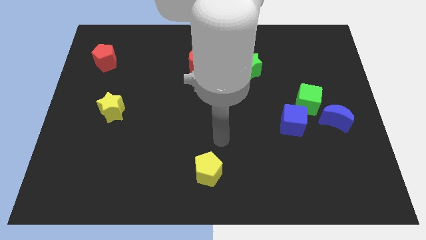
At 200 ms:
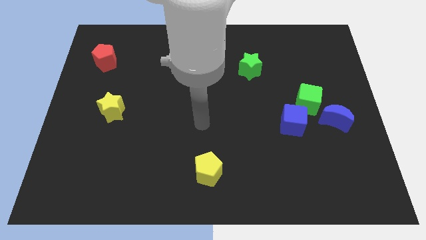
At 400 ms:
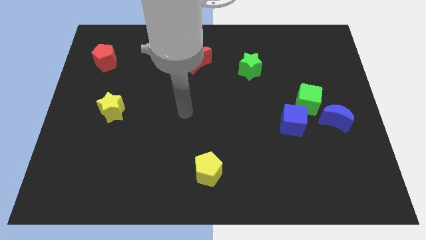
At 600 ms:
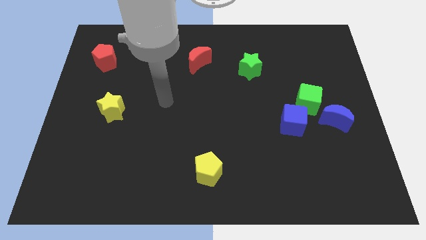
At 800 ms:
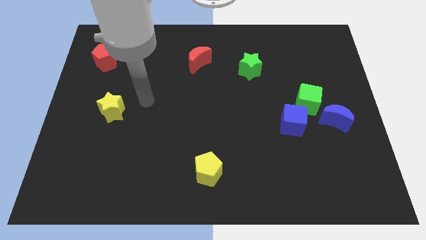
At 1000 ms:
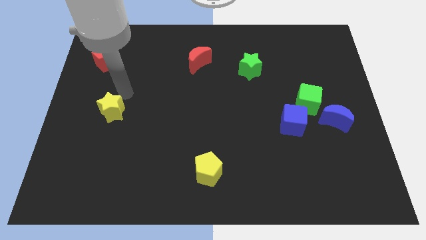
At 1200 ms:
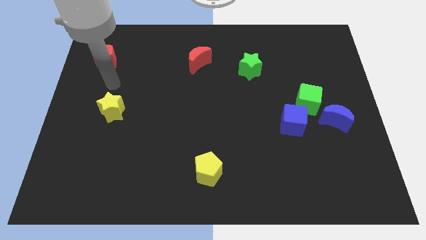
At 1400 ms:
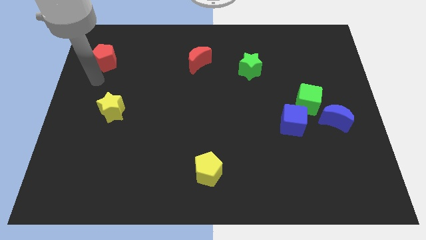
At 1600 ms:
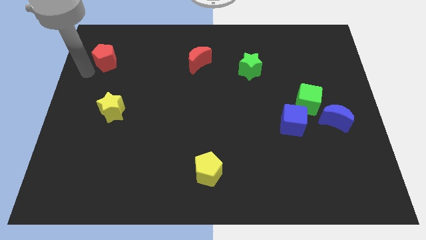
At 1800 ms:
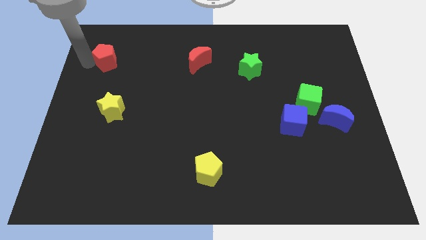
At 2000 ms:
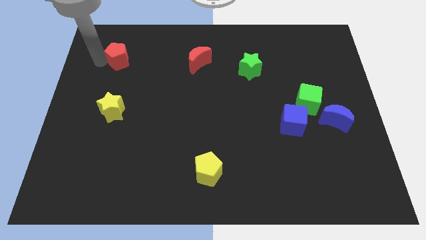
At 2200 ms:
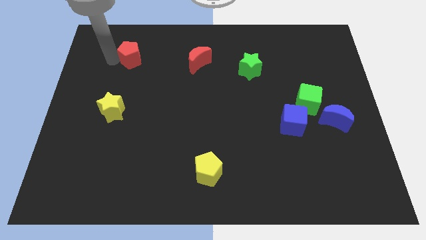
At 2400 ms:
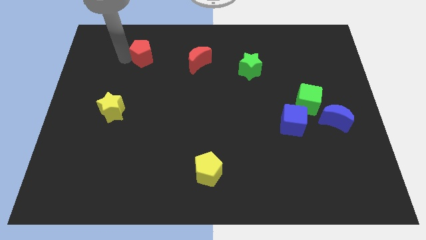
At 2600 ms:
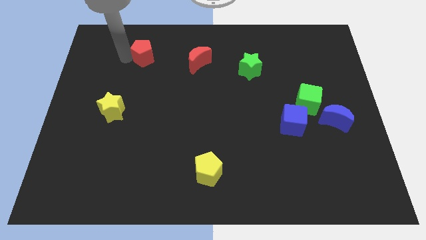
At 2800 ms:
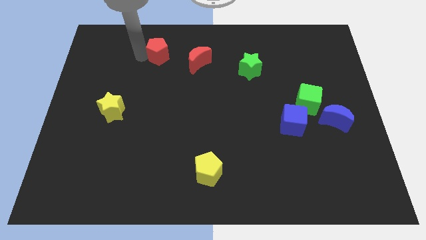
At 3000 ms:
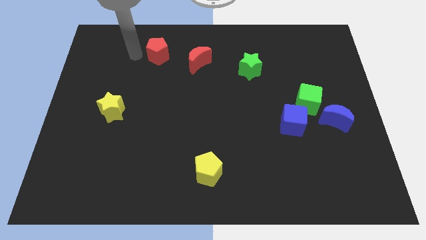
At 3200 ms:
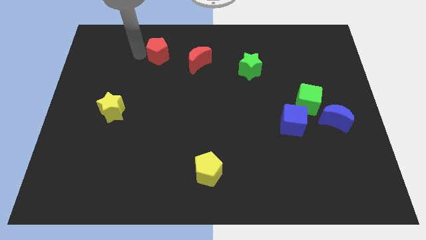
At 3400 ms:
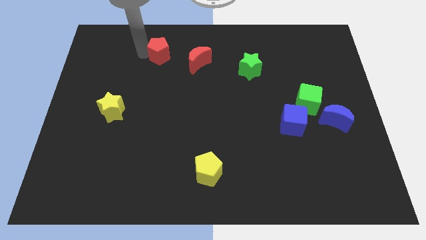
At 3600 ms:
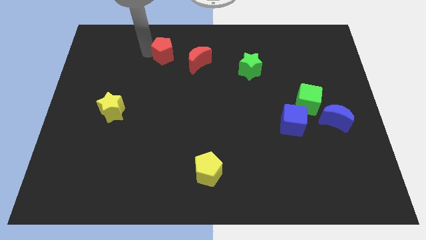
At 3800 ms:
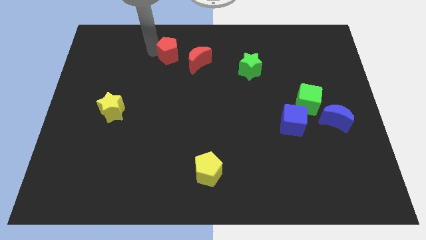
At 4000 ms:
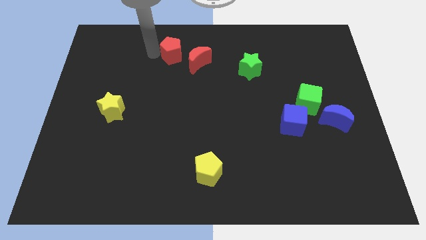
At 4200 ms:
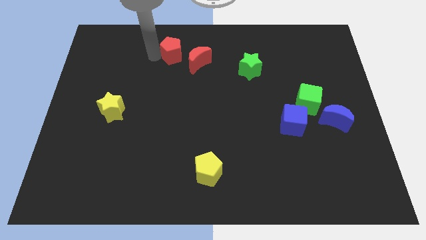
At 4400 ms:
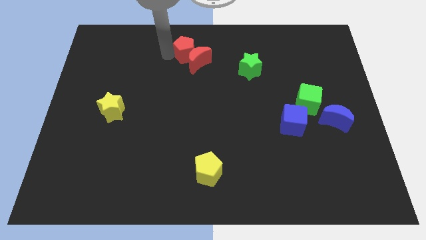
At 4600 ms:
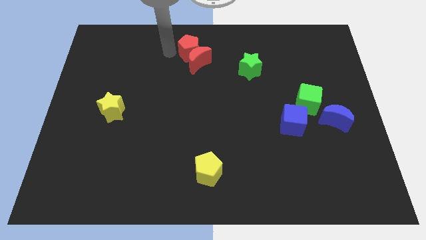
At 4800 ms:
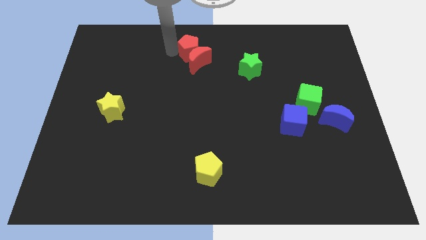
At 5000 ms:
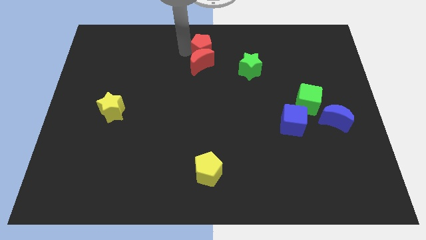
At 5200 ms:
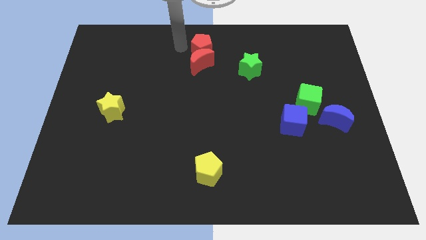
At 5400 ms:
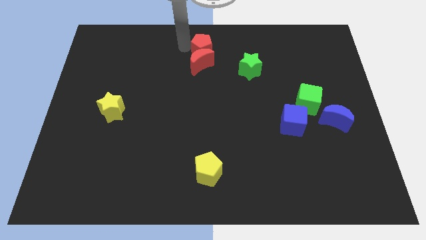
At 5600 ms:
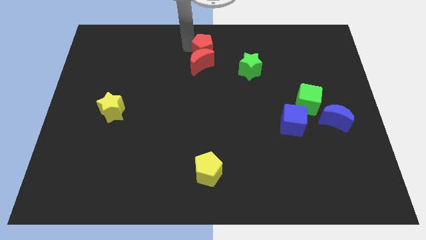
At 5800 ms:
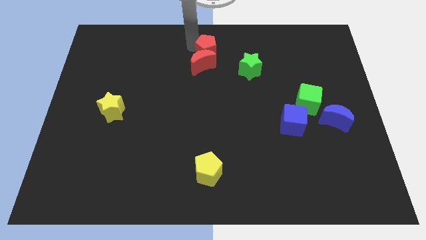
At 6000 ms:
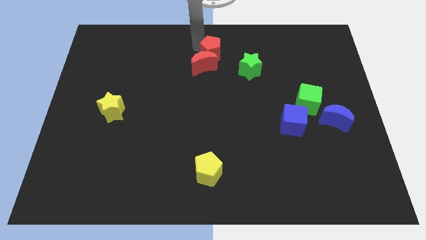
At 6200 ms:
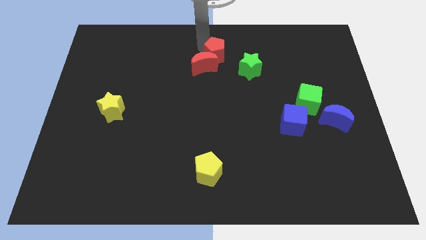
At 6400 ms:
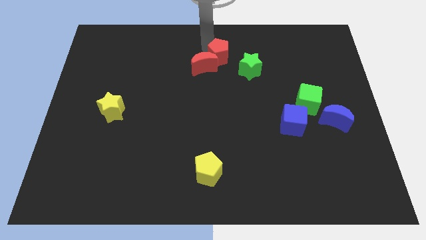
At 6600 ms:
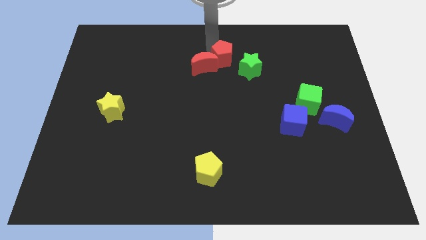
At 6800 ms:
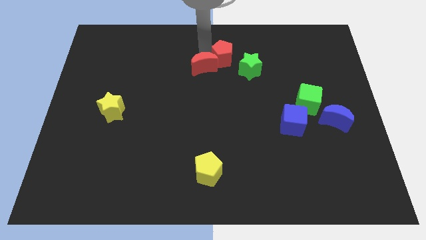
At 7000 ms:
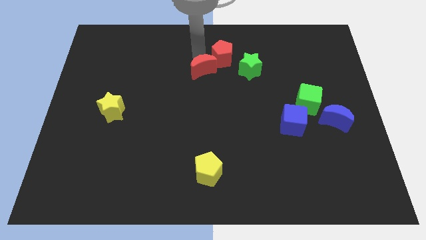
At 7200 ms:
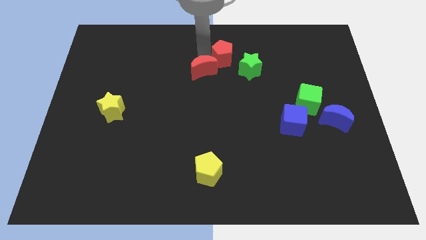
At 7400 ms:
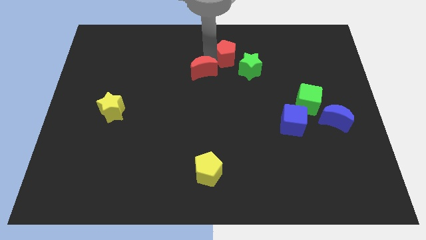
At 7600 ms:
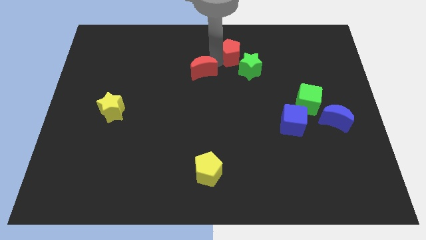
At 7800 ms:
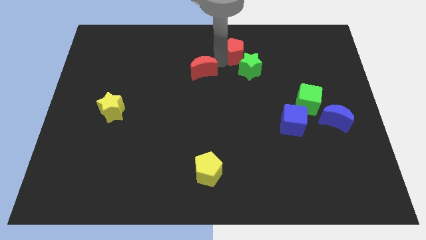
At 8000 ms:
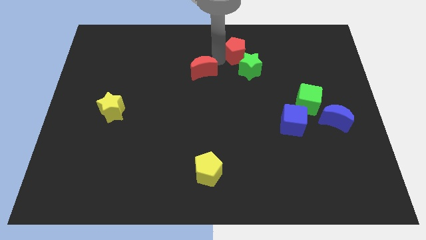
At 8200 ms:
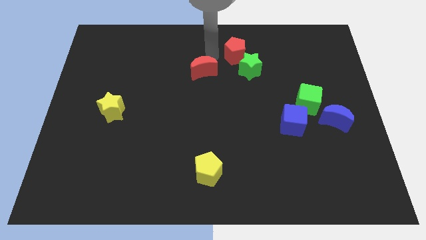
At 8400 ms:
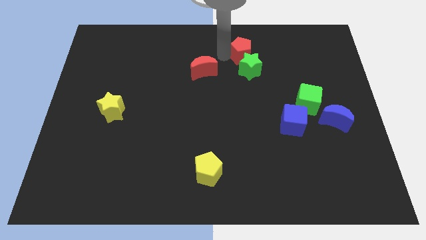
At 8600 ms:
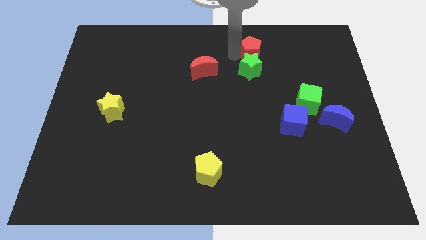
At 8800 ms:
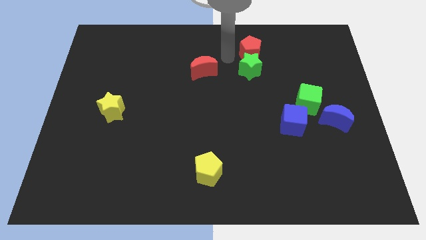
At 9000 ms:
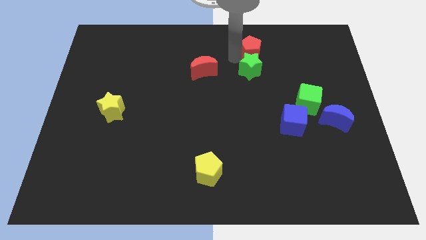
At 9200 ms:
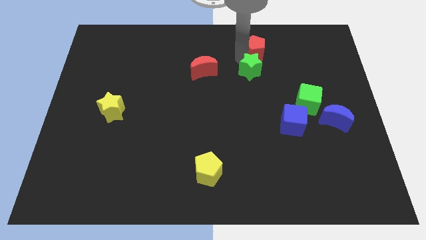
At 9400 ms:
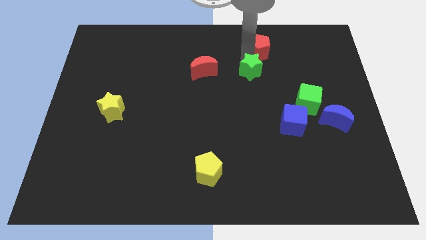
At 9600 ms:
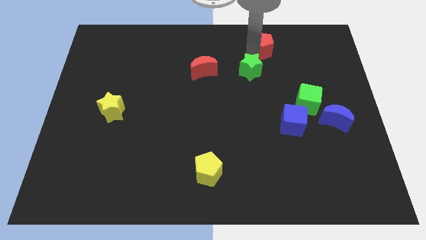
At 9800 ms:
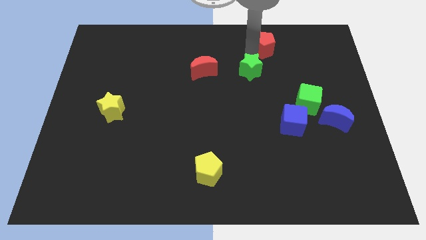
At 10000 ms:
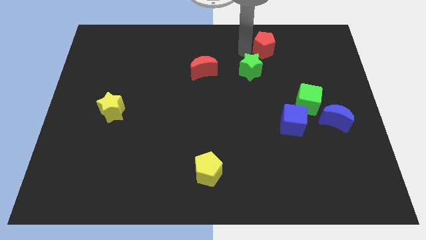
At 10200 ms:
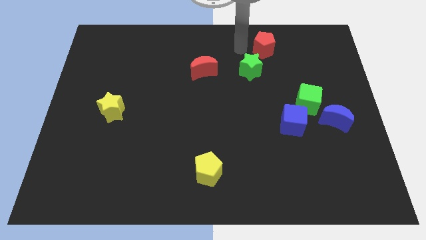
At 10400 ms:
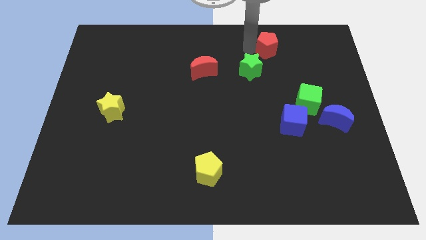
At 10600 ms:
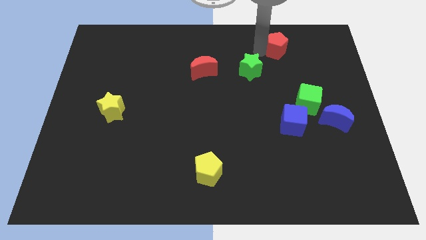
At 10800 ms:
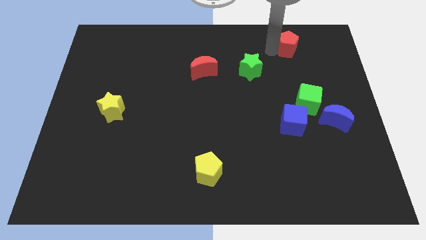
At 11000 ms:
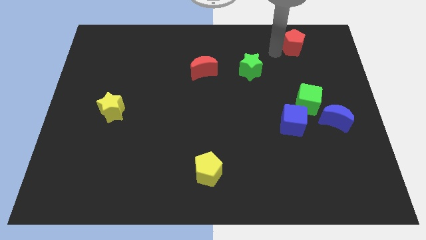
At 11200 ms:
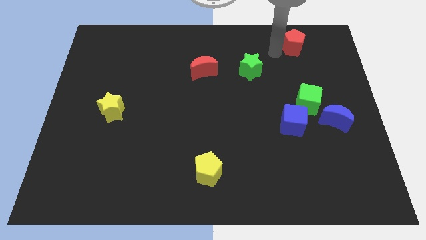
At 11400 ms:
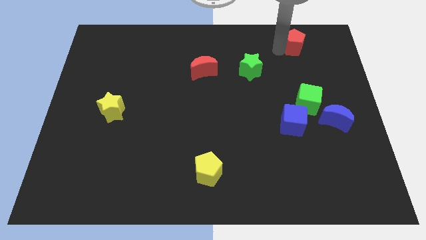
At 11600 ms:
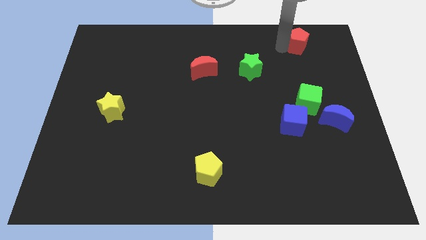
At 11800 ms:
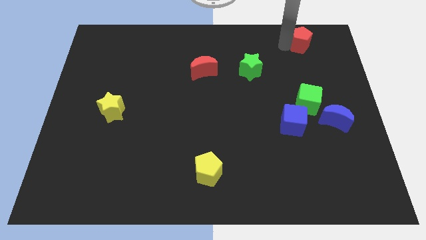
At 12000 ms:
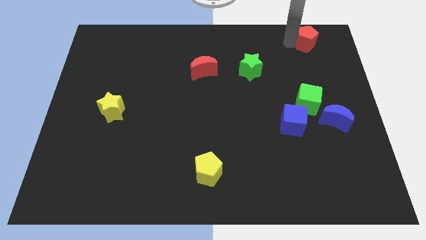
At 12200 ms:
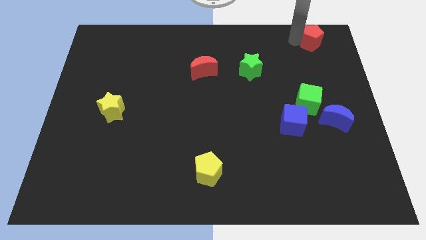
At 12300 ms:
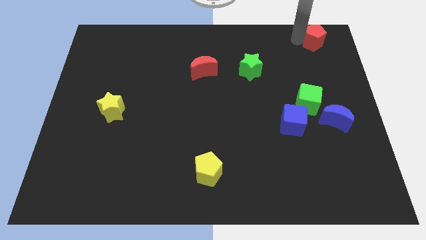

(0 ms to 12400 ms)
slide the red pentagon to the upper right corner

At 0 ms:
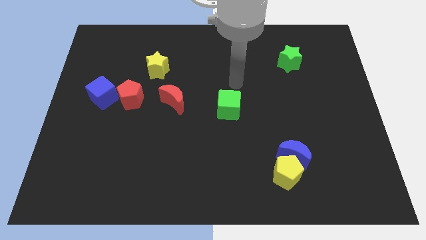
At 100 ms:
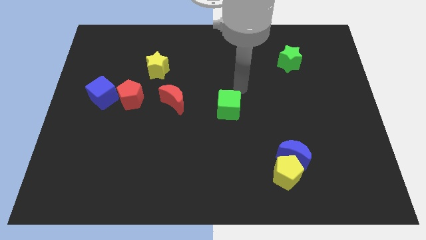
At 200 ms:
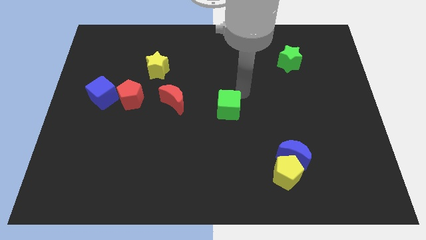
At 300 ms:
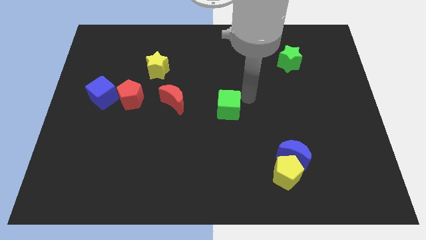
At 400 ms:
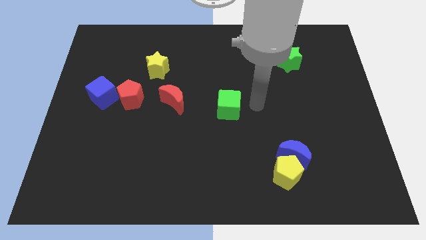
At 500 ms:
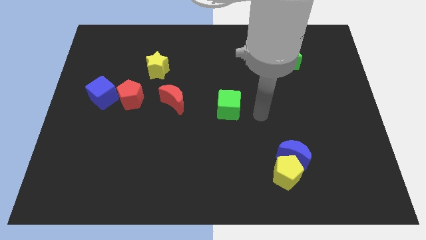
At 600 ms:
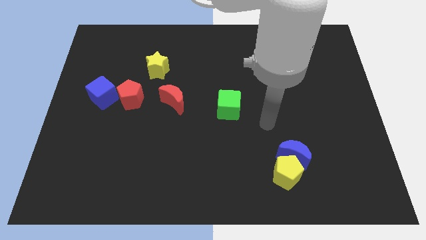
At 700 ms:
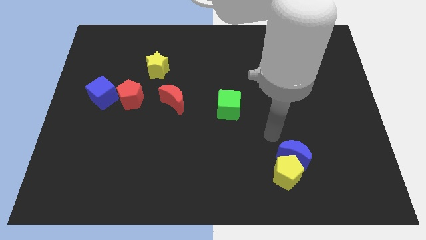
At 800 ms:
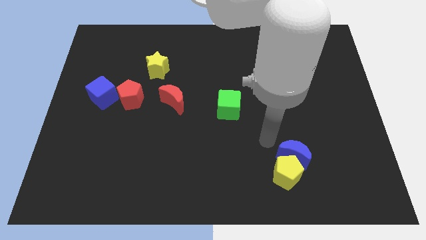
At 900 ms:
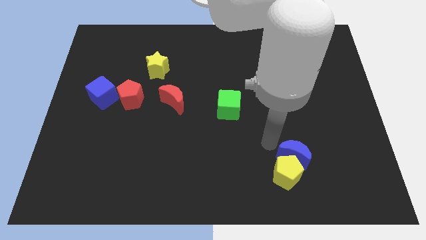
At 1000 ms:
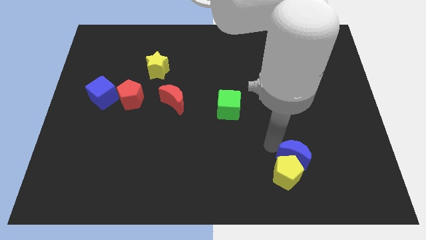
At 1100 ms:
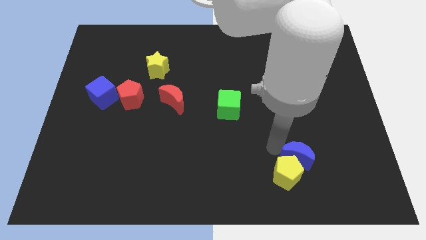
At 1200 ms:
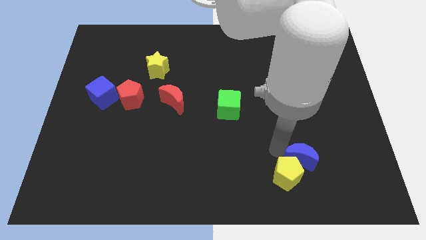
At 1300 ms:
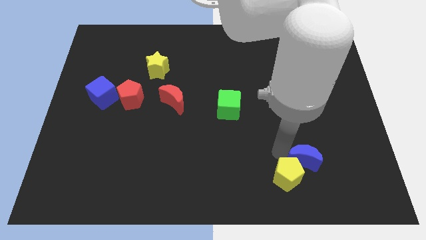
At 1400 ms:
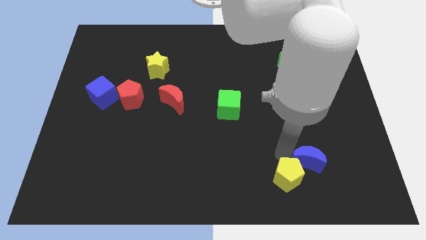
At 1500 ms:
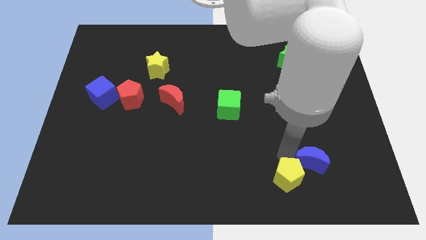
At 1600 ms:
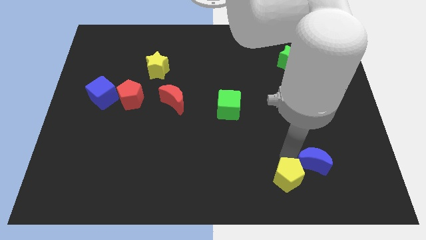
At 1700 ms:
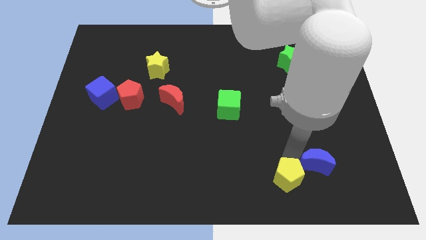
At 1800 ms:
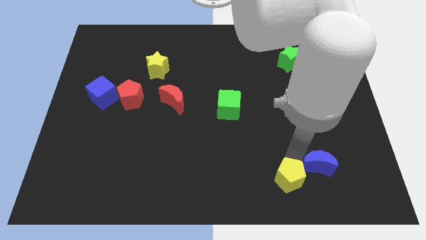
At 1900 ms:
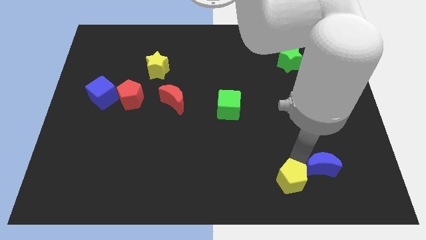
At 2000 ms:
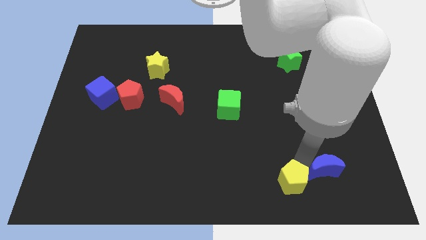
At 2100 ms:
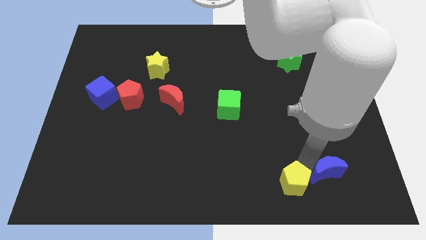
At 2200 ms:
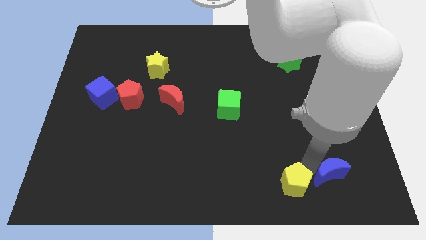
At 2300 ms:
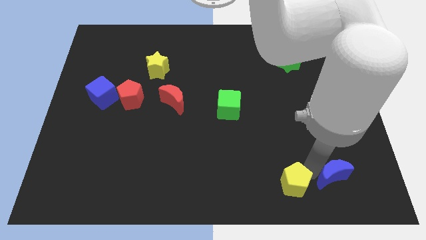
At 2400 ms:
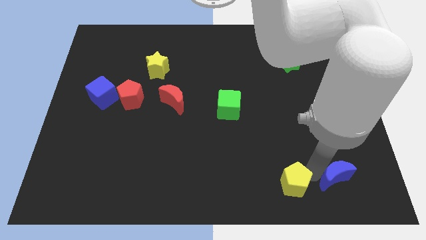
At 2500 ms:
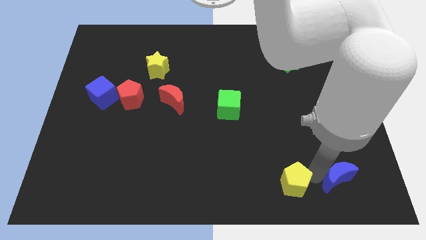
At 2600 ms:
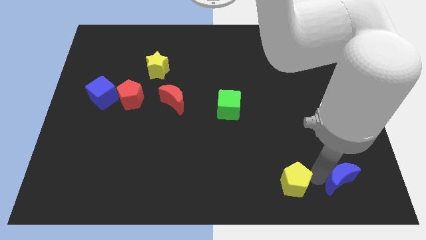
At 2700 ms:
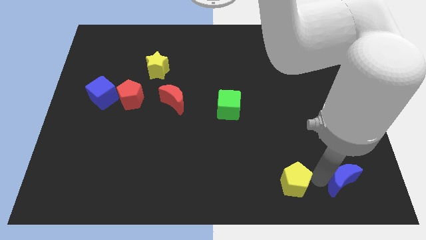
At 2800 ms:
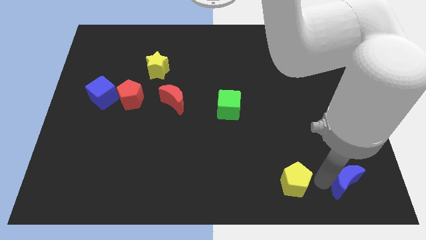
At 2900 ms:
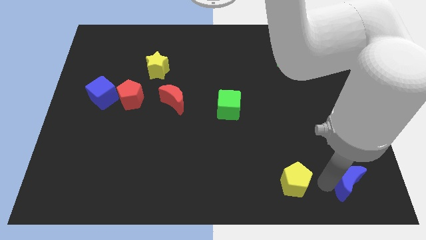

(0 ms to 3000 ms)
slide the blue moon to the bottom right of the board
